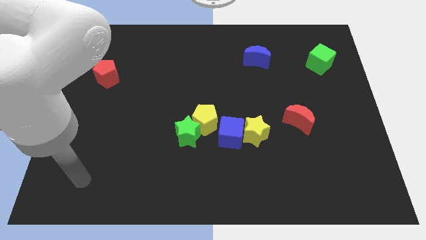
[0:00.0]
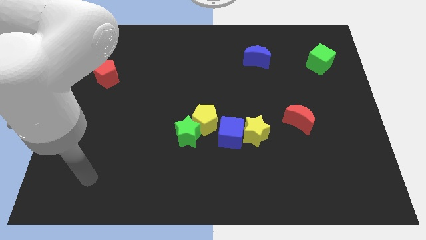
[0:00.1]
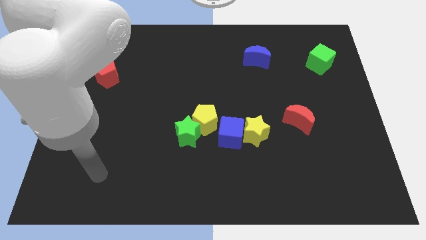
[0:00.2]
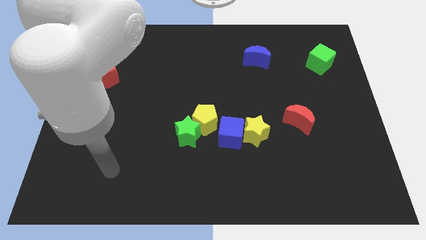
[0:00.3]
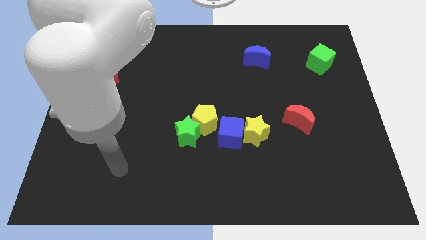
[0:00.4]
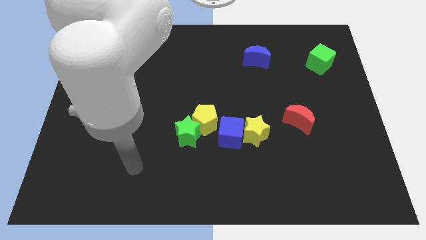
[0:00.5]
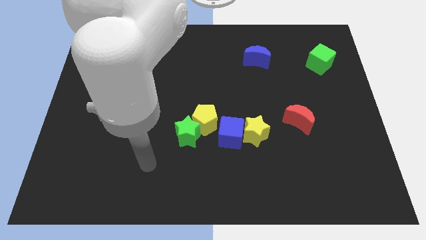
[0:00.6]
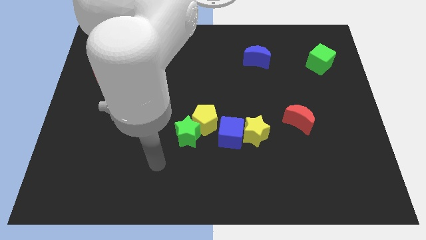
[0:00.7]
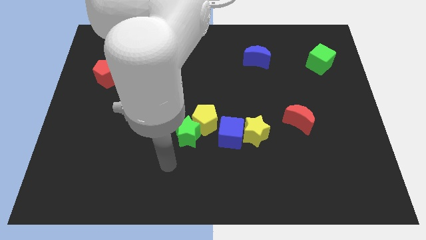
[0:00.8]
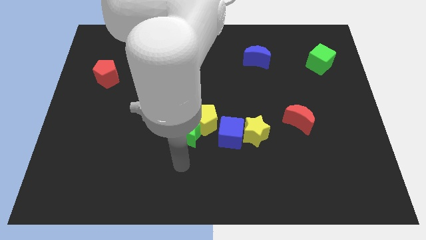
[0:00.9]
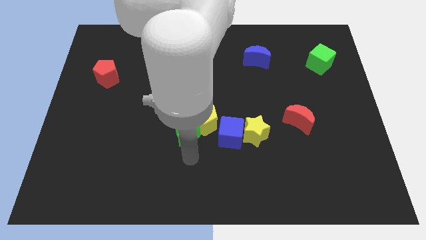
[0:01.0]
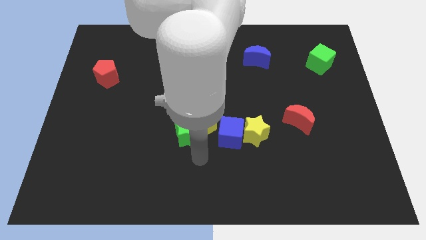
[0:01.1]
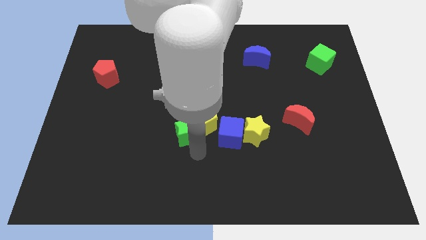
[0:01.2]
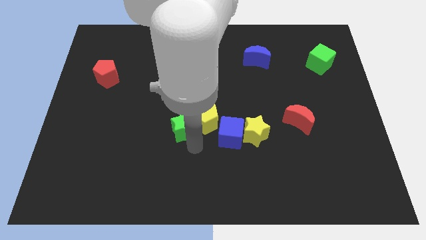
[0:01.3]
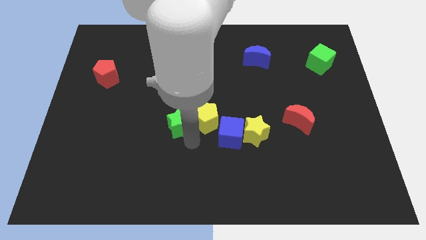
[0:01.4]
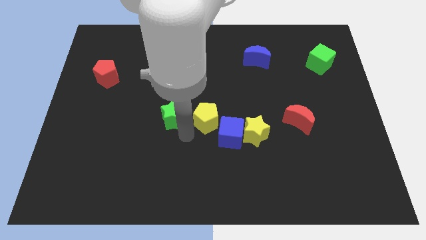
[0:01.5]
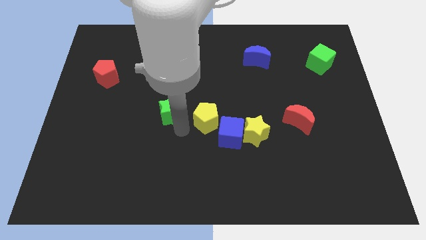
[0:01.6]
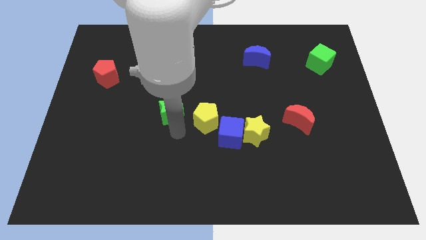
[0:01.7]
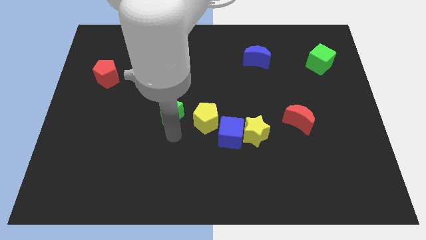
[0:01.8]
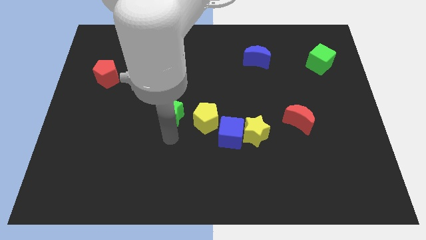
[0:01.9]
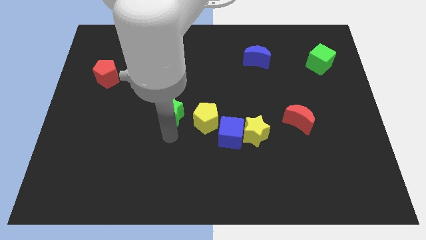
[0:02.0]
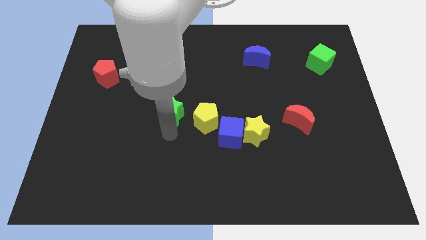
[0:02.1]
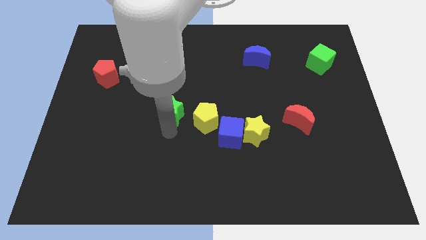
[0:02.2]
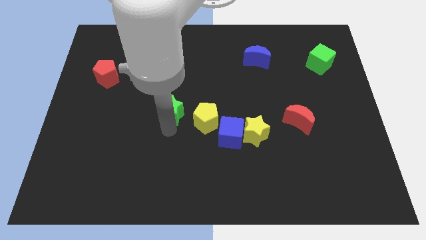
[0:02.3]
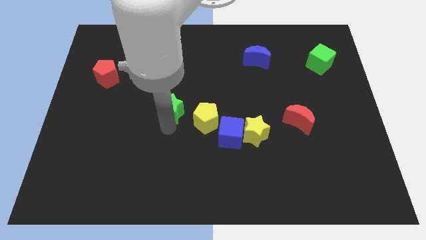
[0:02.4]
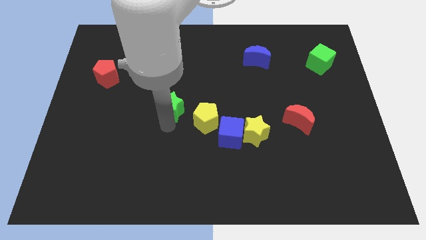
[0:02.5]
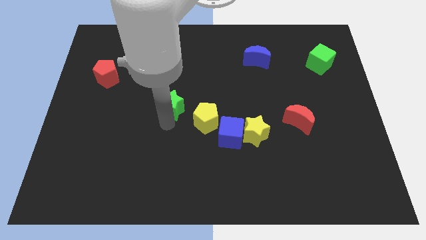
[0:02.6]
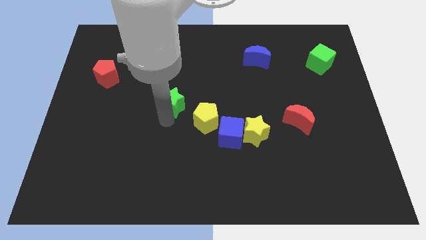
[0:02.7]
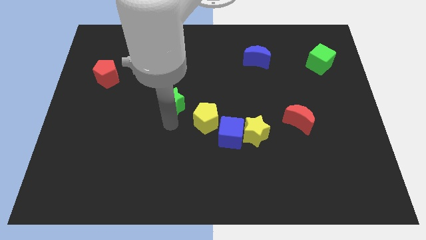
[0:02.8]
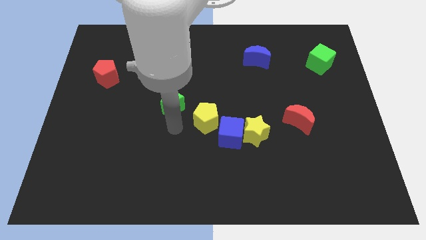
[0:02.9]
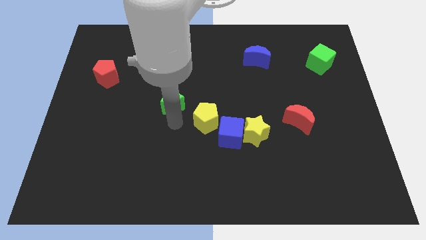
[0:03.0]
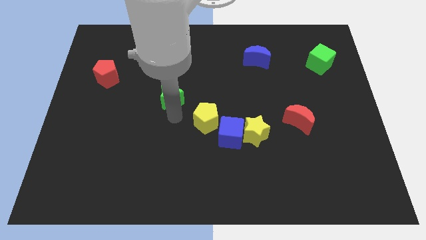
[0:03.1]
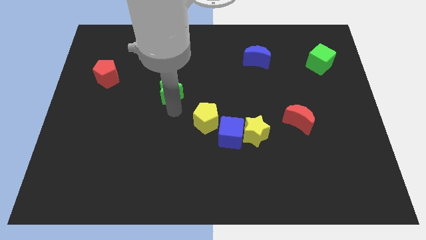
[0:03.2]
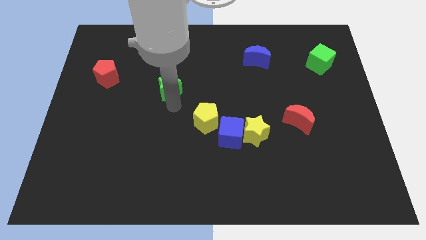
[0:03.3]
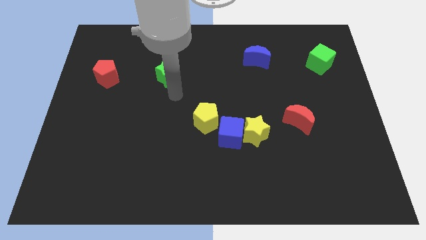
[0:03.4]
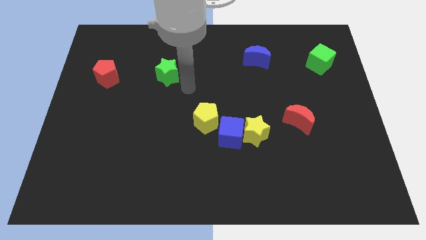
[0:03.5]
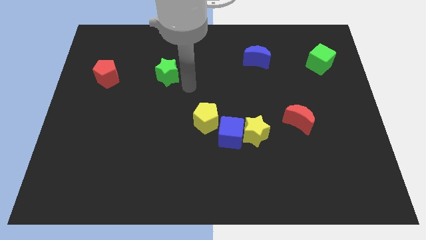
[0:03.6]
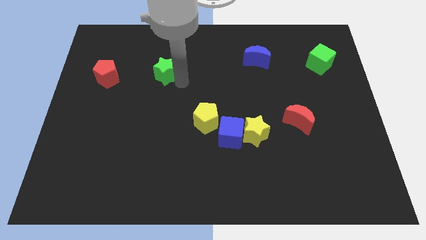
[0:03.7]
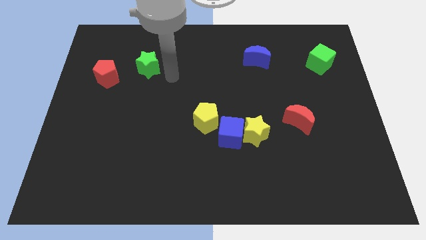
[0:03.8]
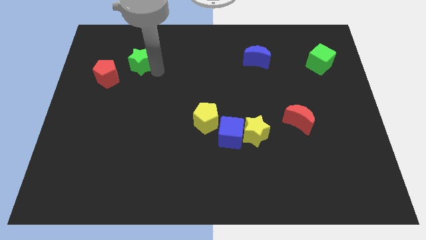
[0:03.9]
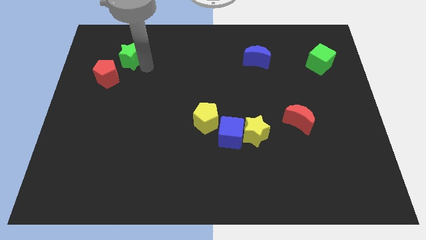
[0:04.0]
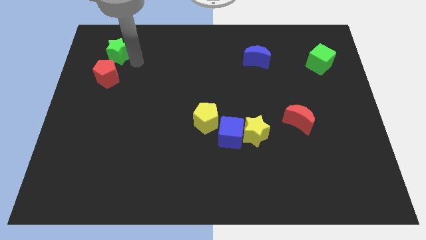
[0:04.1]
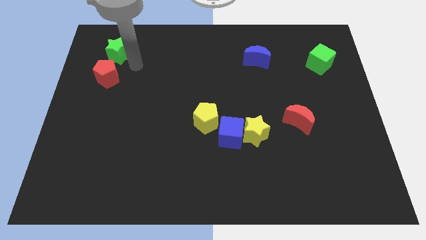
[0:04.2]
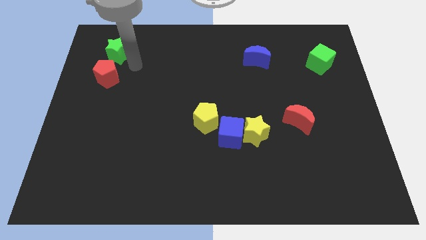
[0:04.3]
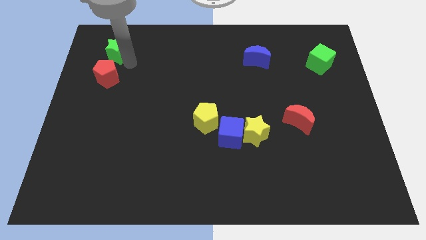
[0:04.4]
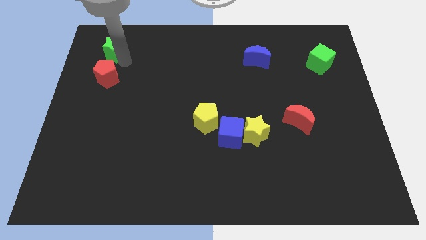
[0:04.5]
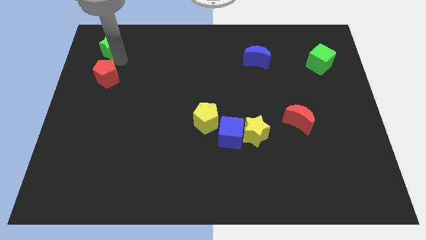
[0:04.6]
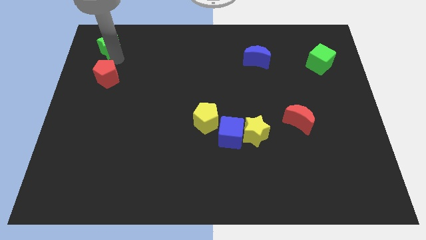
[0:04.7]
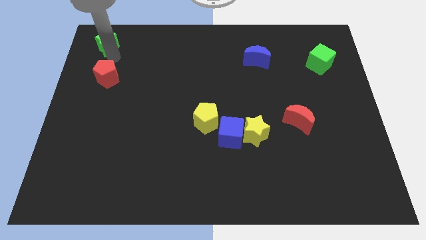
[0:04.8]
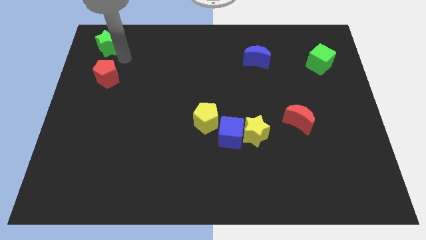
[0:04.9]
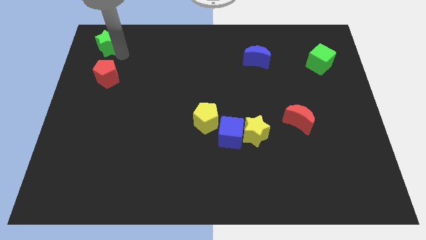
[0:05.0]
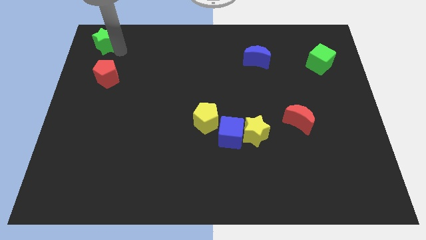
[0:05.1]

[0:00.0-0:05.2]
move the green star to the top left

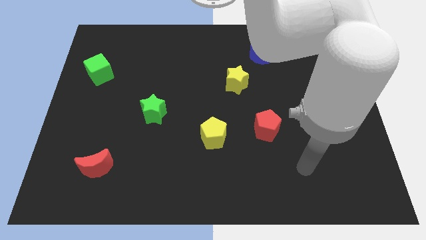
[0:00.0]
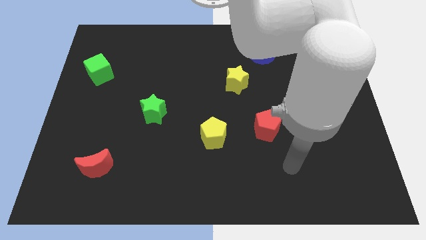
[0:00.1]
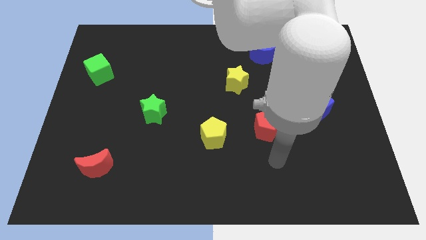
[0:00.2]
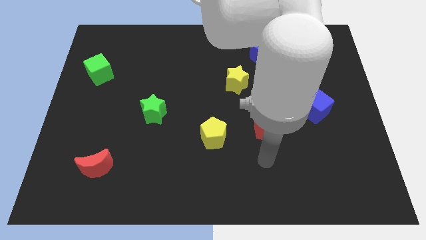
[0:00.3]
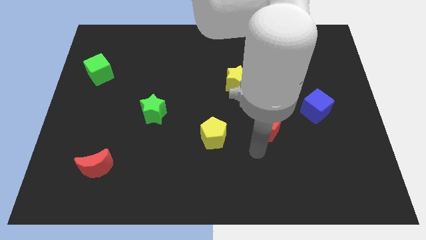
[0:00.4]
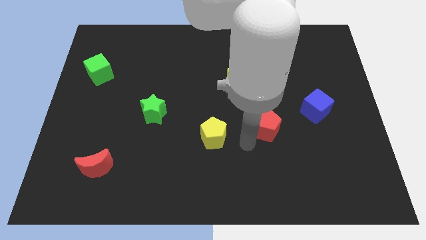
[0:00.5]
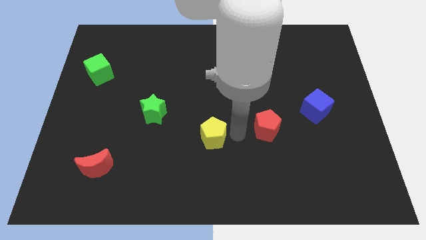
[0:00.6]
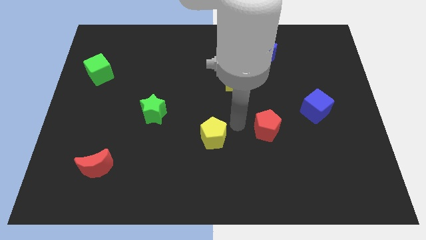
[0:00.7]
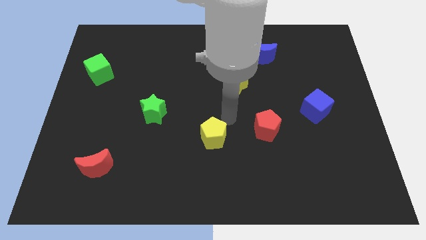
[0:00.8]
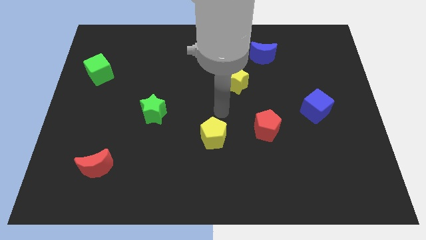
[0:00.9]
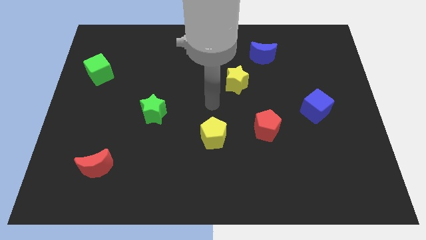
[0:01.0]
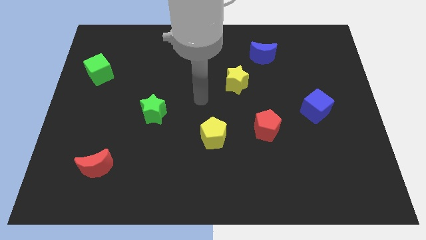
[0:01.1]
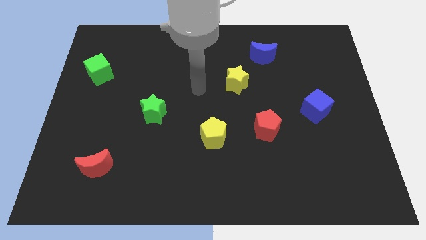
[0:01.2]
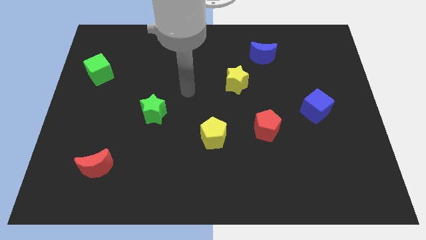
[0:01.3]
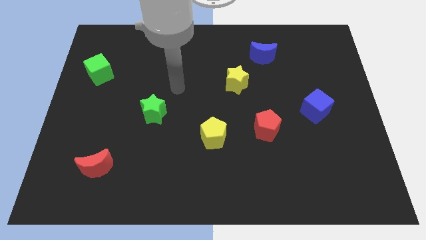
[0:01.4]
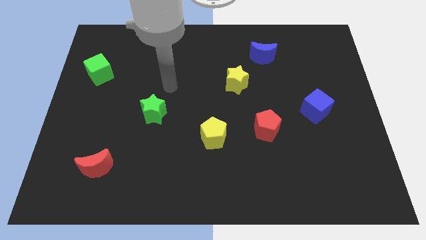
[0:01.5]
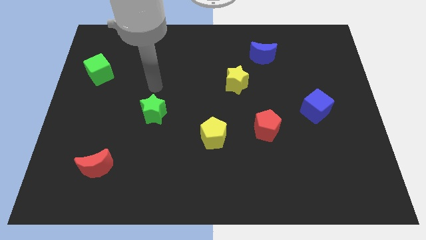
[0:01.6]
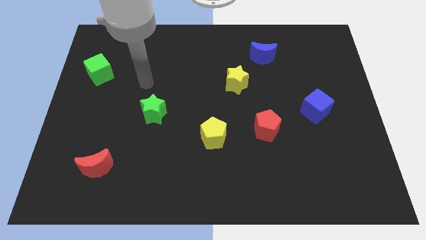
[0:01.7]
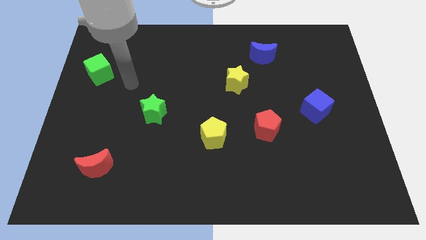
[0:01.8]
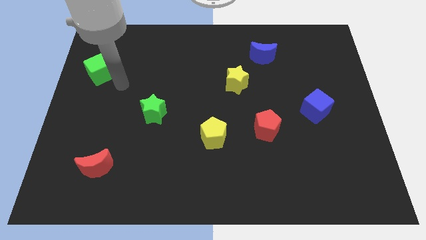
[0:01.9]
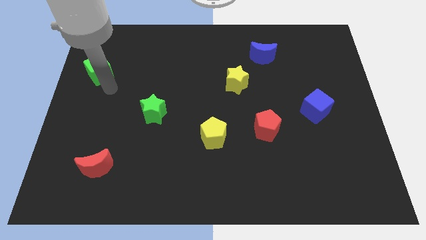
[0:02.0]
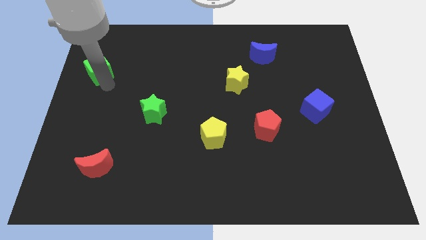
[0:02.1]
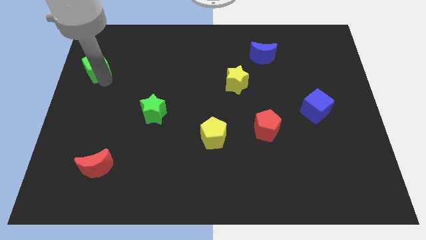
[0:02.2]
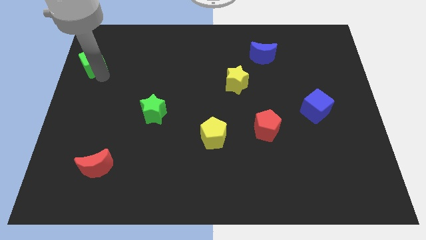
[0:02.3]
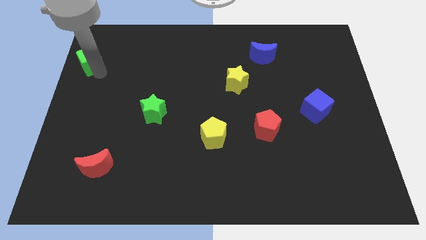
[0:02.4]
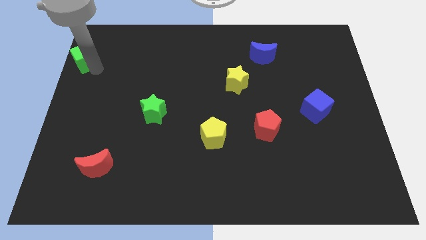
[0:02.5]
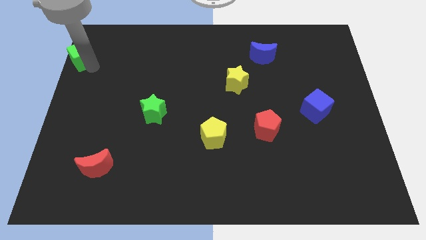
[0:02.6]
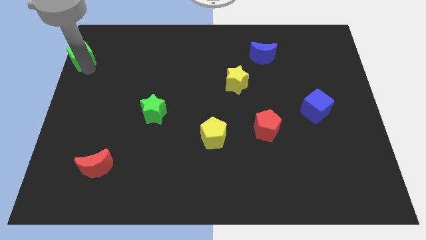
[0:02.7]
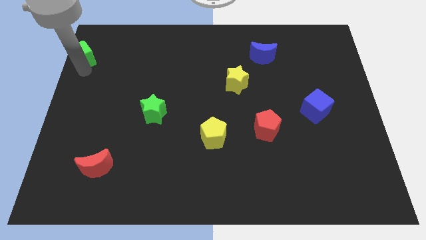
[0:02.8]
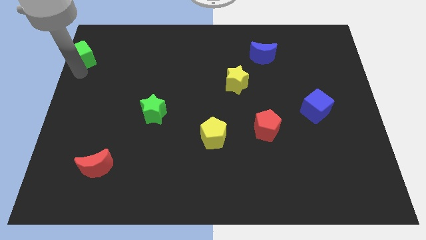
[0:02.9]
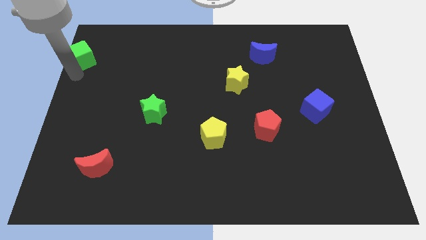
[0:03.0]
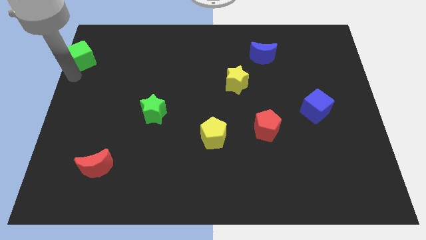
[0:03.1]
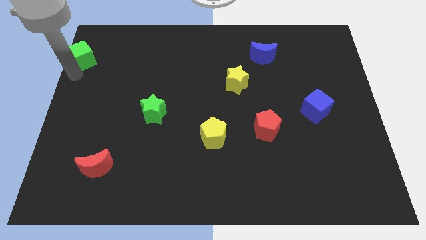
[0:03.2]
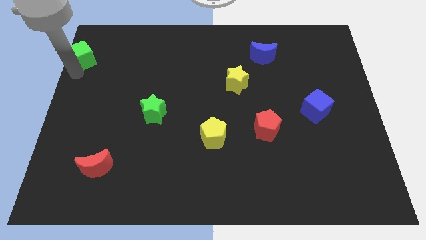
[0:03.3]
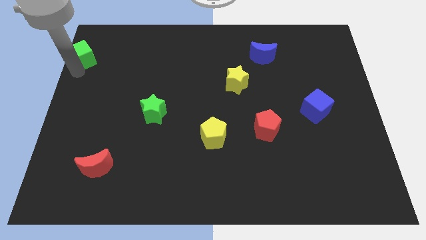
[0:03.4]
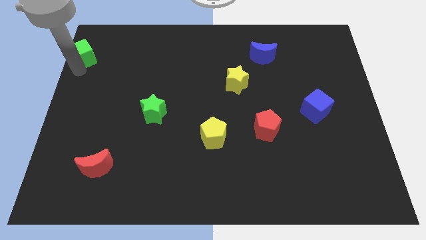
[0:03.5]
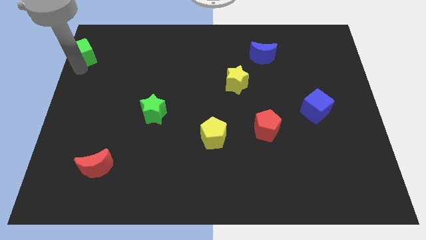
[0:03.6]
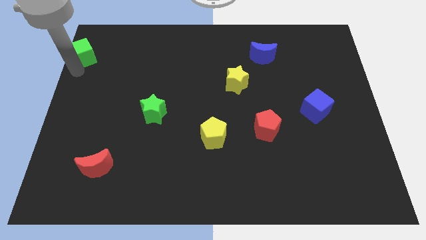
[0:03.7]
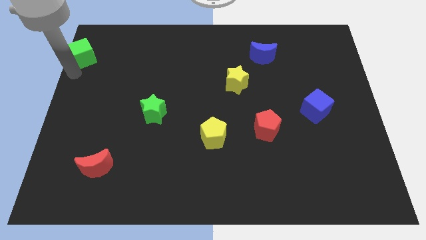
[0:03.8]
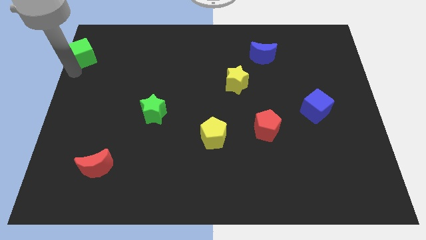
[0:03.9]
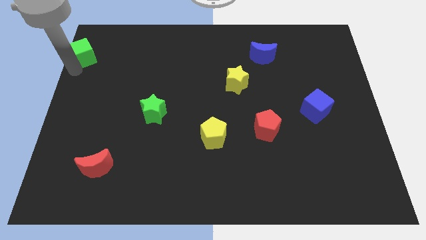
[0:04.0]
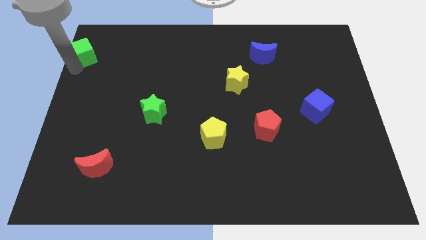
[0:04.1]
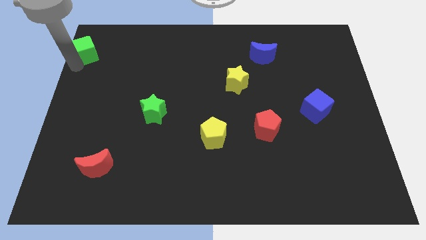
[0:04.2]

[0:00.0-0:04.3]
slide the green cube to the top left corner
